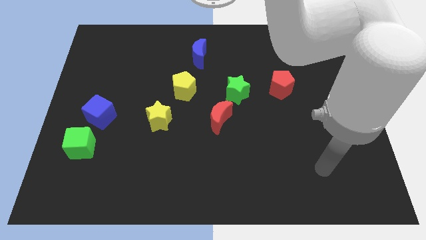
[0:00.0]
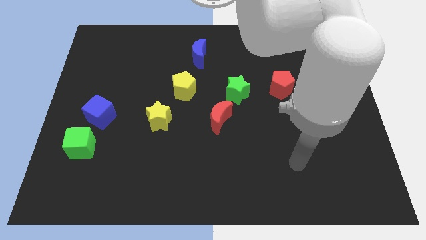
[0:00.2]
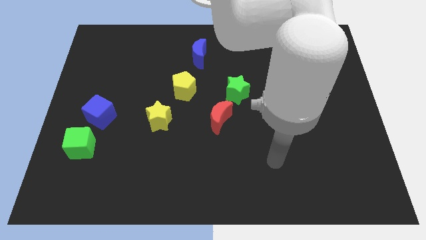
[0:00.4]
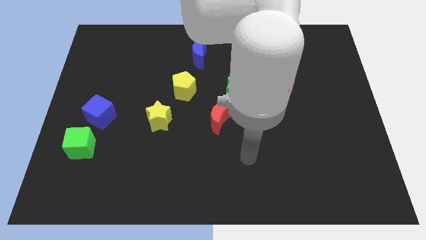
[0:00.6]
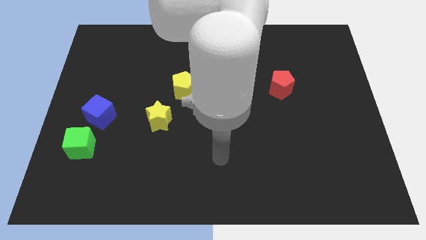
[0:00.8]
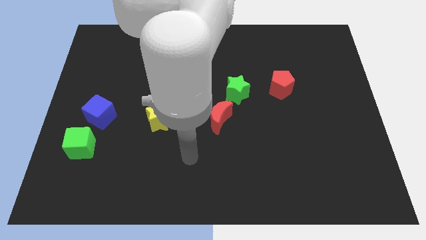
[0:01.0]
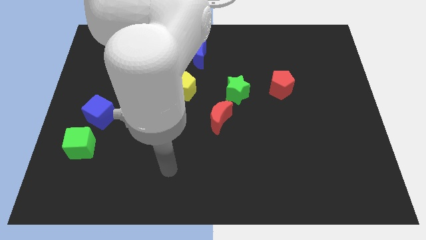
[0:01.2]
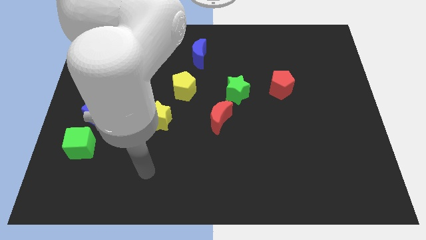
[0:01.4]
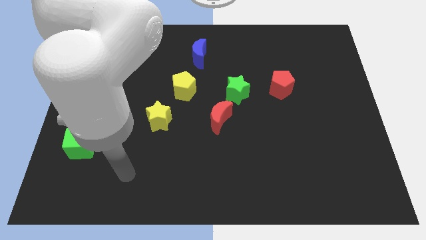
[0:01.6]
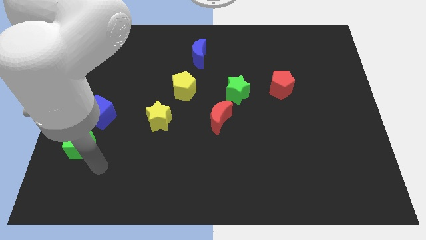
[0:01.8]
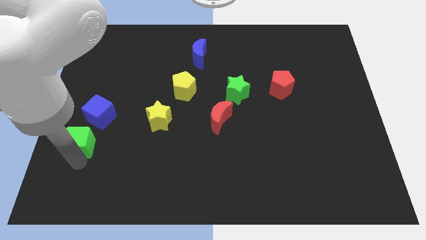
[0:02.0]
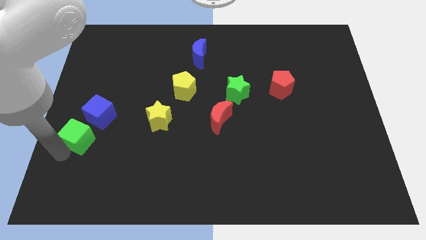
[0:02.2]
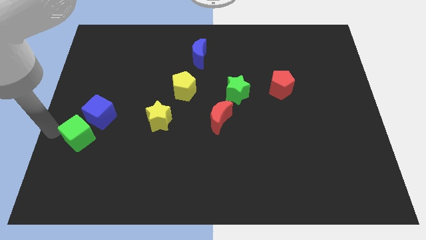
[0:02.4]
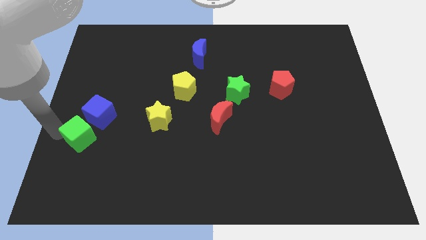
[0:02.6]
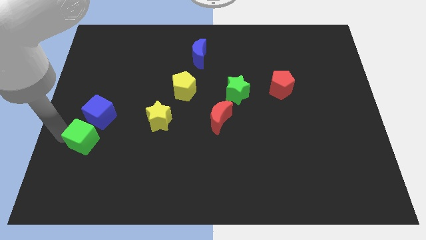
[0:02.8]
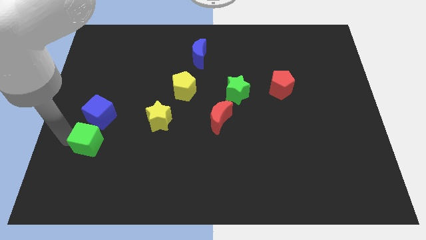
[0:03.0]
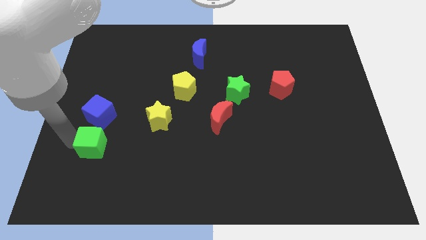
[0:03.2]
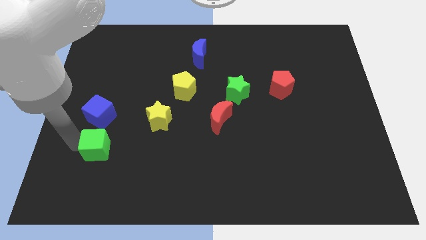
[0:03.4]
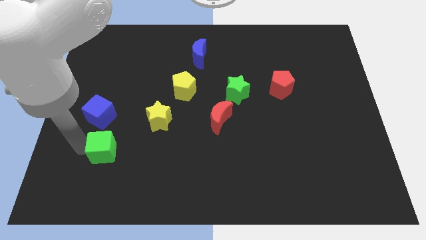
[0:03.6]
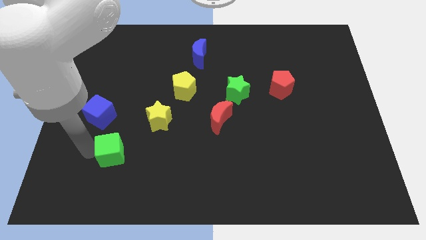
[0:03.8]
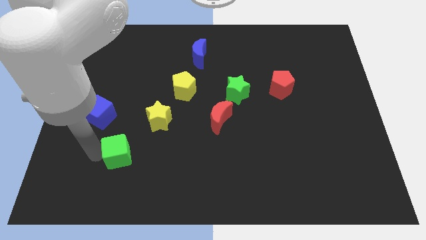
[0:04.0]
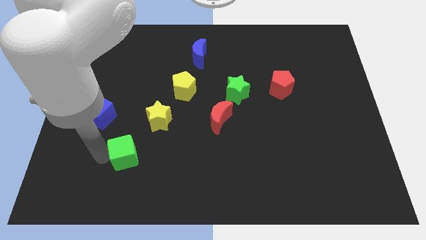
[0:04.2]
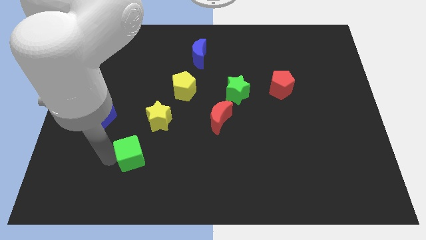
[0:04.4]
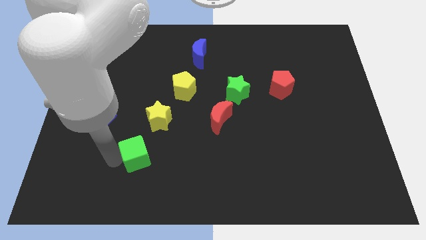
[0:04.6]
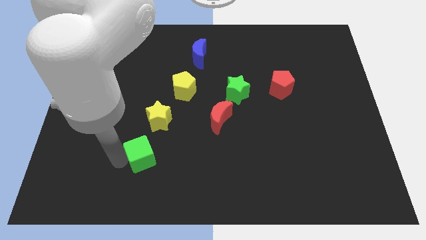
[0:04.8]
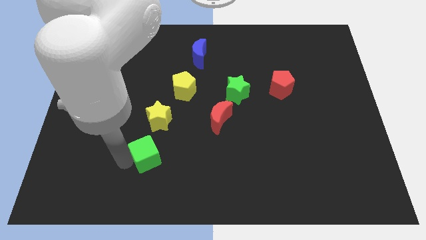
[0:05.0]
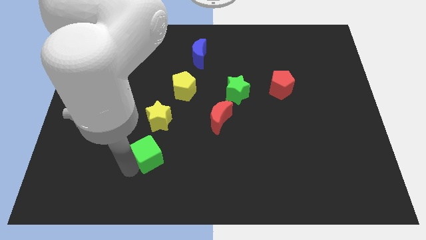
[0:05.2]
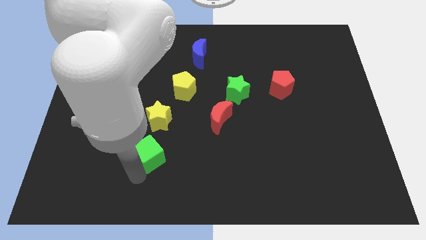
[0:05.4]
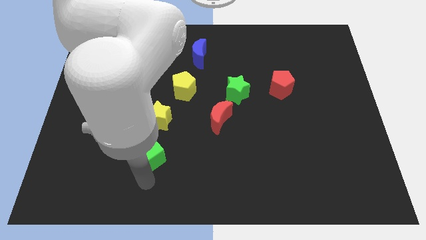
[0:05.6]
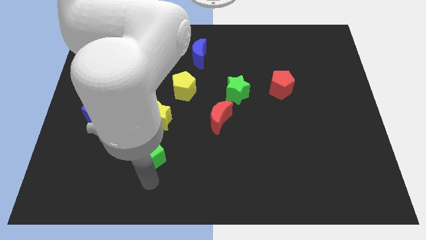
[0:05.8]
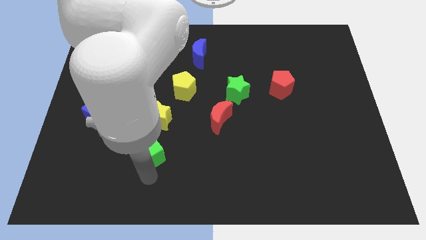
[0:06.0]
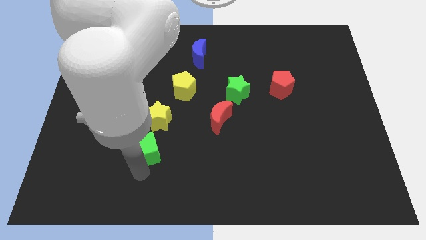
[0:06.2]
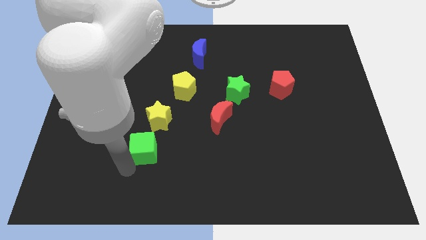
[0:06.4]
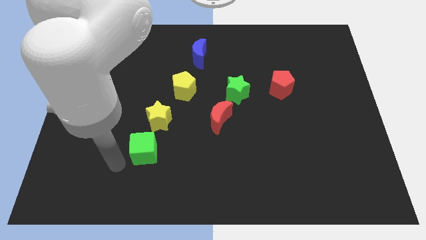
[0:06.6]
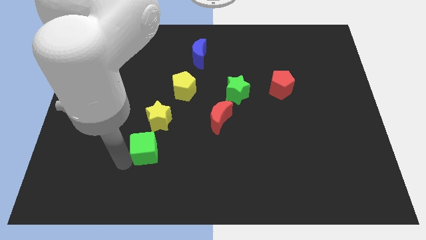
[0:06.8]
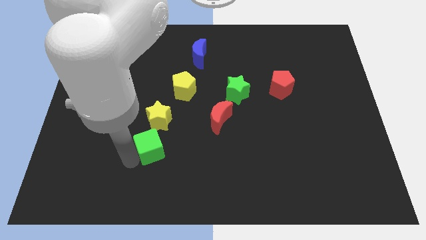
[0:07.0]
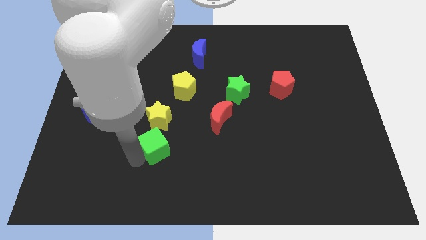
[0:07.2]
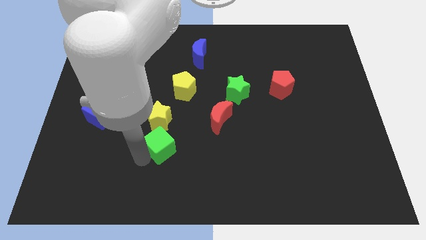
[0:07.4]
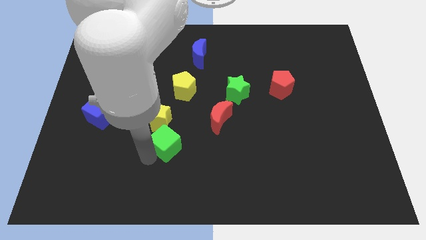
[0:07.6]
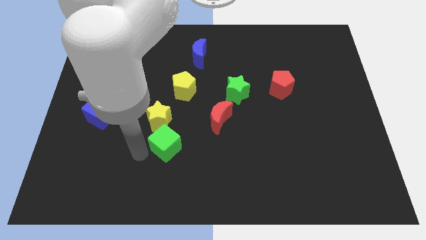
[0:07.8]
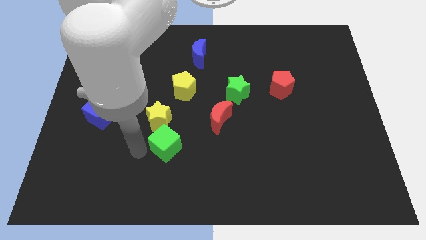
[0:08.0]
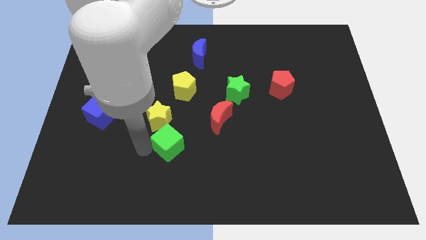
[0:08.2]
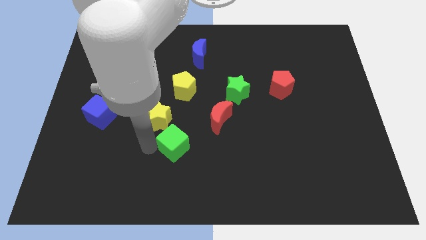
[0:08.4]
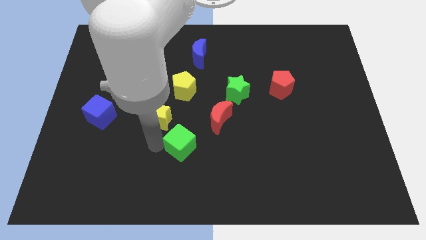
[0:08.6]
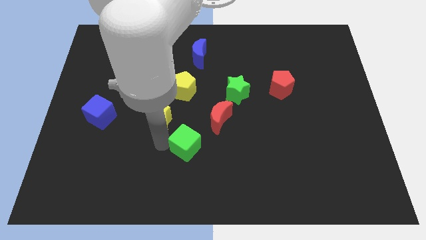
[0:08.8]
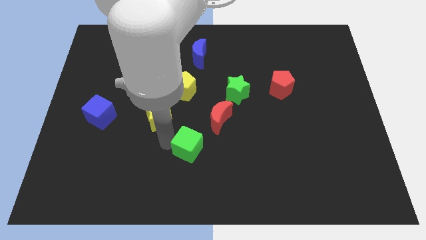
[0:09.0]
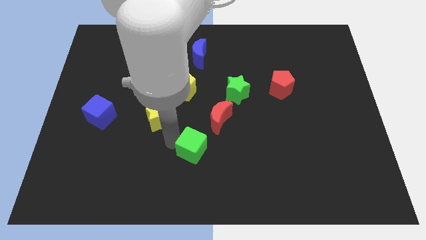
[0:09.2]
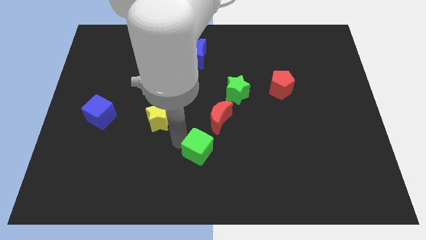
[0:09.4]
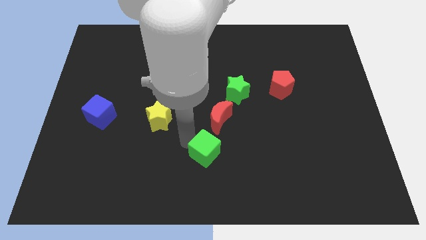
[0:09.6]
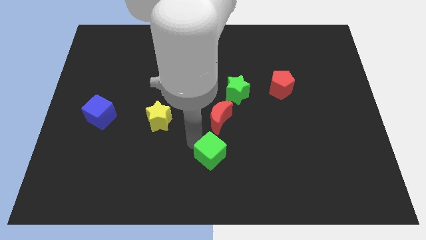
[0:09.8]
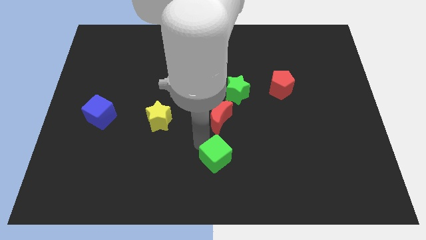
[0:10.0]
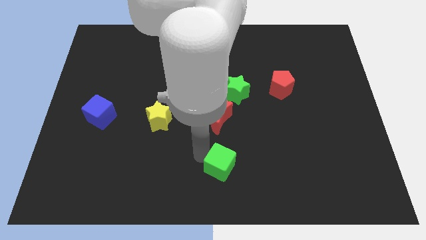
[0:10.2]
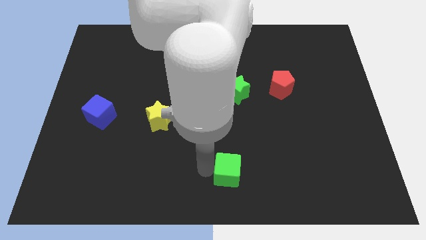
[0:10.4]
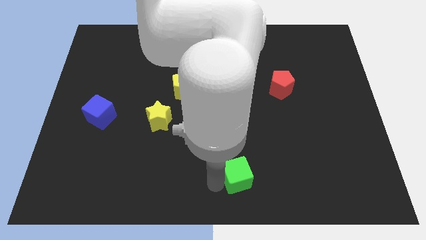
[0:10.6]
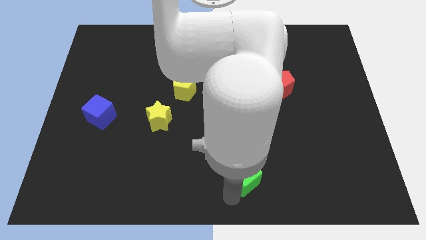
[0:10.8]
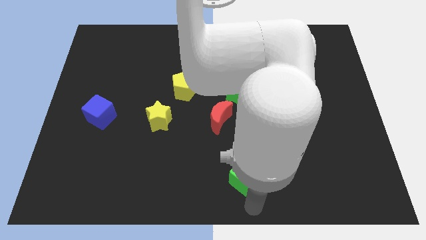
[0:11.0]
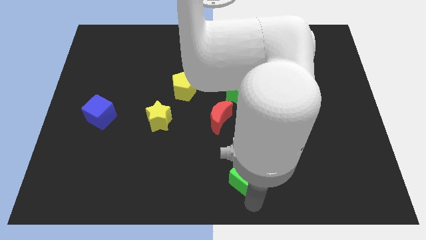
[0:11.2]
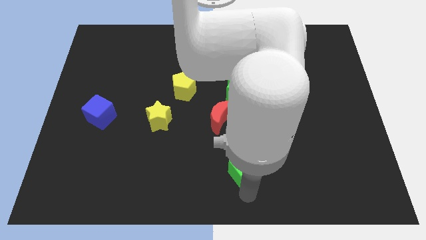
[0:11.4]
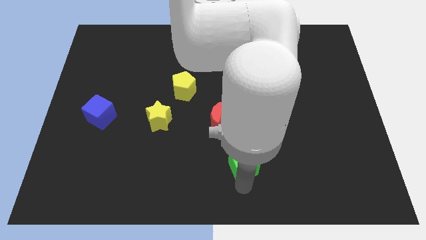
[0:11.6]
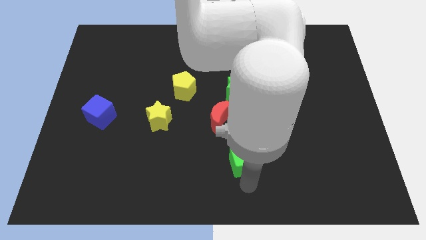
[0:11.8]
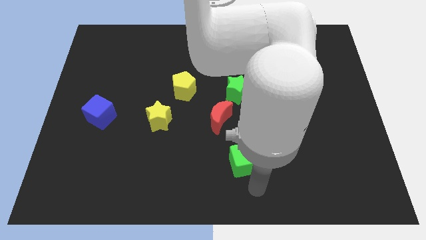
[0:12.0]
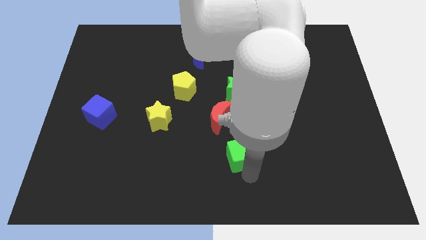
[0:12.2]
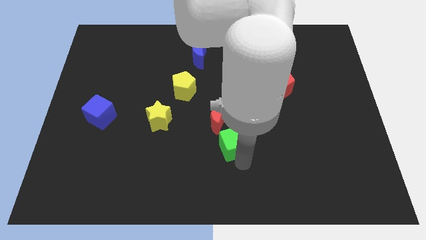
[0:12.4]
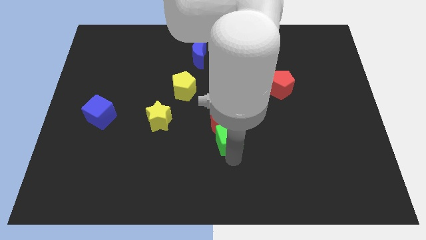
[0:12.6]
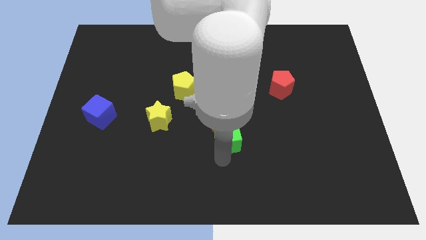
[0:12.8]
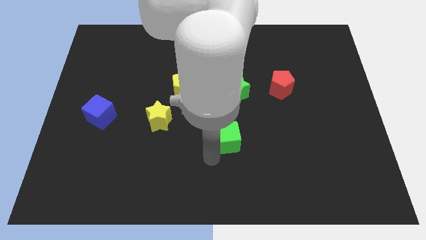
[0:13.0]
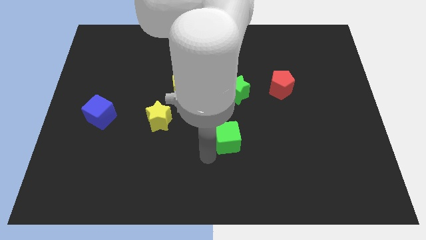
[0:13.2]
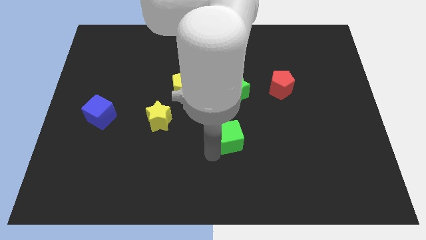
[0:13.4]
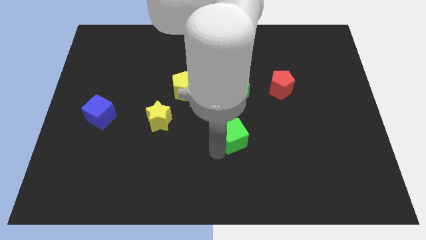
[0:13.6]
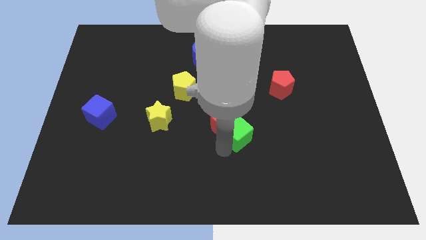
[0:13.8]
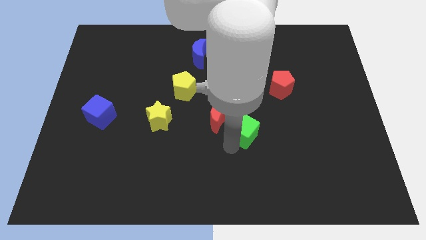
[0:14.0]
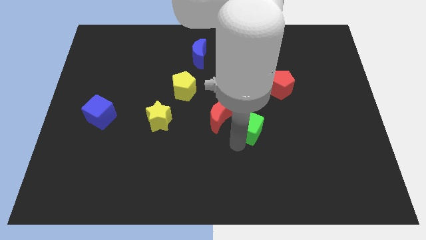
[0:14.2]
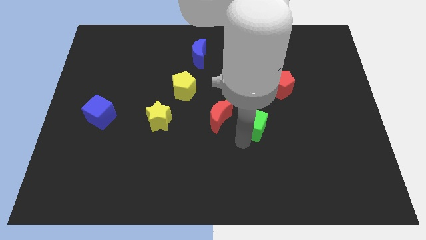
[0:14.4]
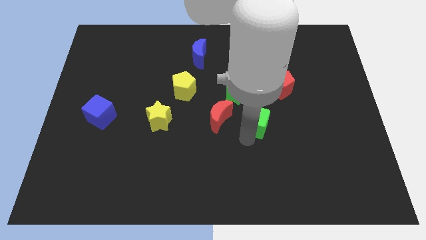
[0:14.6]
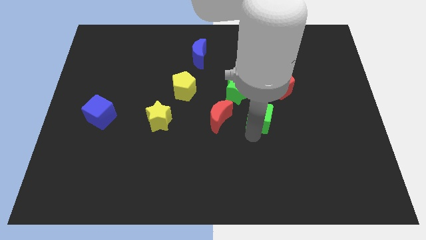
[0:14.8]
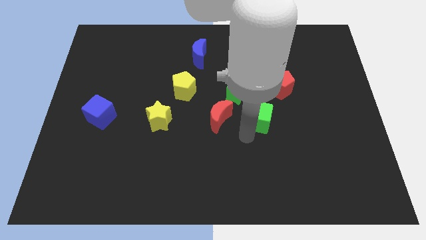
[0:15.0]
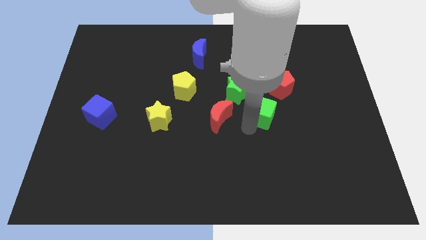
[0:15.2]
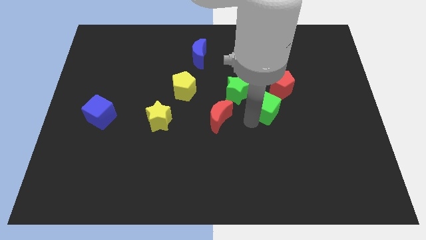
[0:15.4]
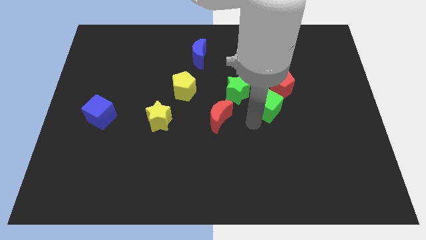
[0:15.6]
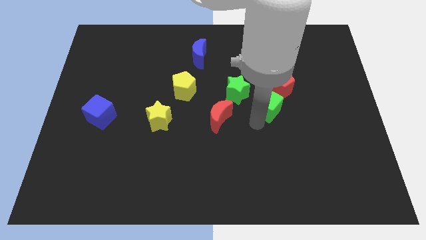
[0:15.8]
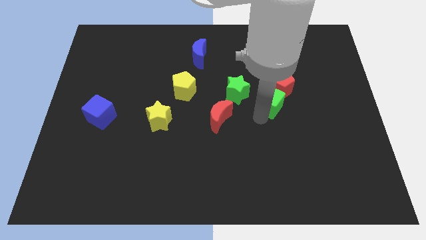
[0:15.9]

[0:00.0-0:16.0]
move the green cube towards the red pentagon
